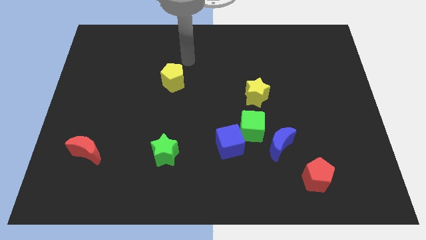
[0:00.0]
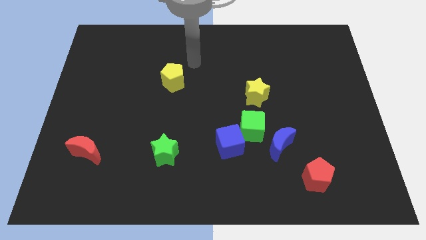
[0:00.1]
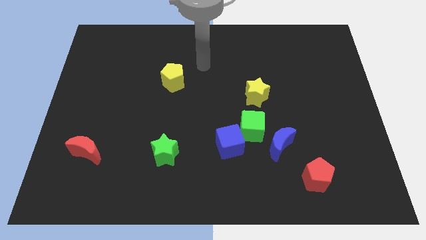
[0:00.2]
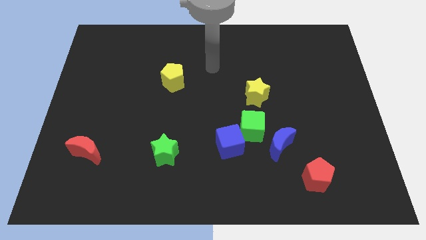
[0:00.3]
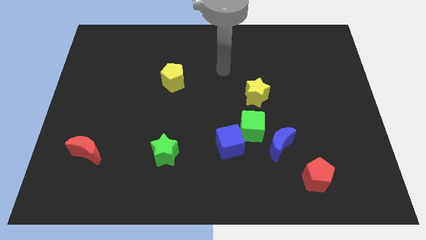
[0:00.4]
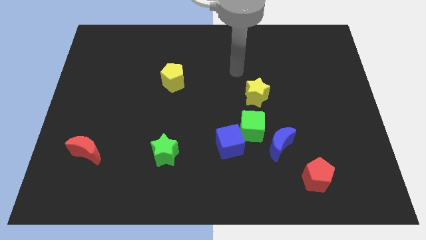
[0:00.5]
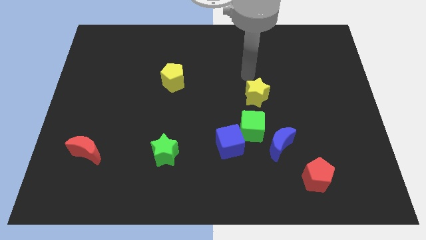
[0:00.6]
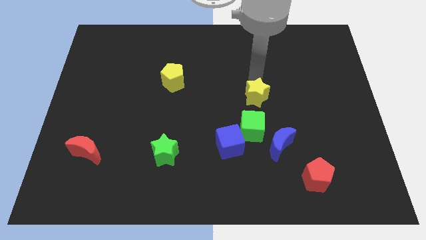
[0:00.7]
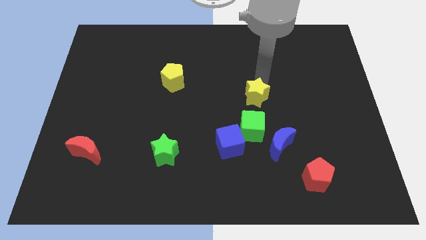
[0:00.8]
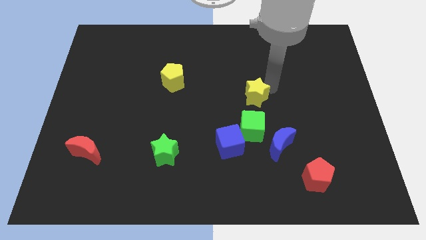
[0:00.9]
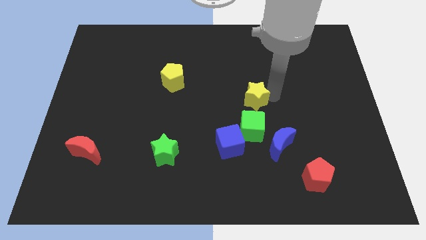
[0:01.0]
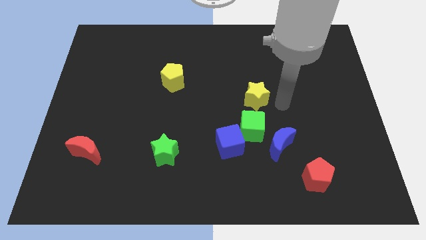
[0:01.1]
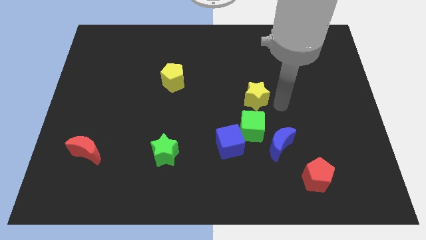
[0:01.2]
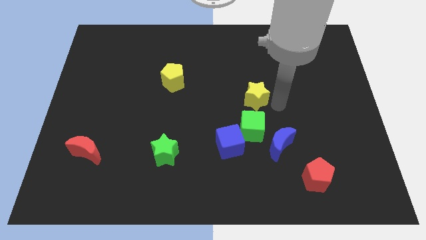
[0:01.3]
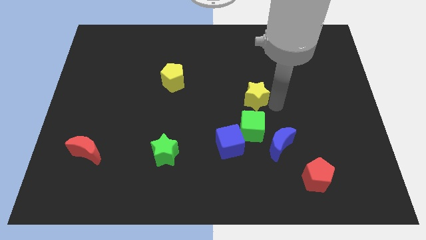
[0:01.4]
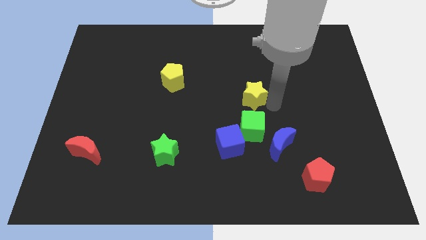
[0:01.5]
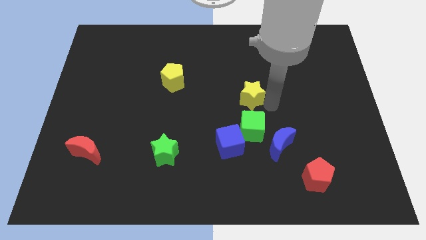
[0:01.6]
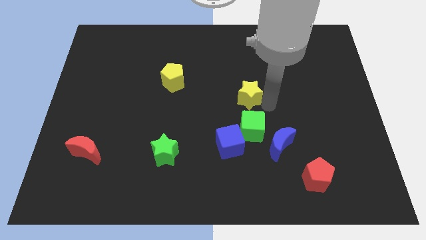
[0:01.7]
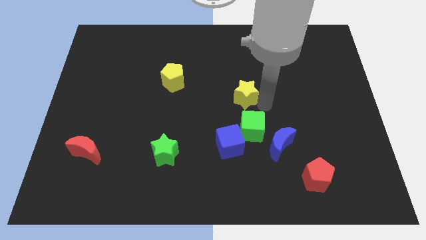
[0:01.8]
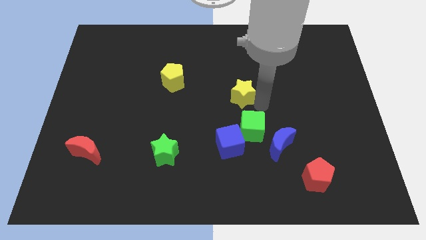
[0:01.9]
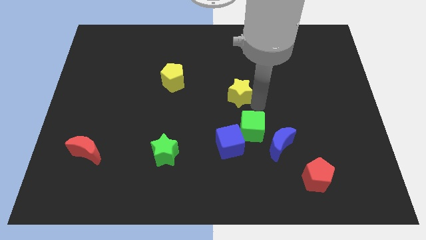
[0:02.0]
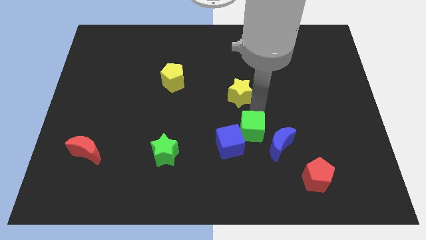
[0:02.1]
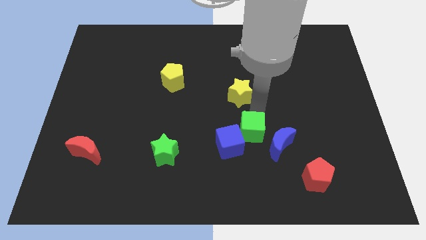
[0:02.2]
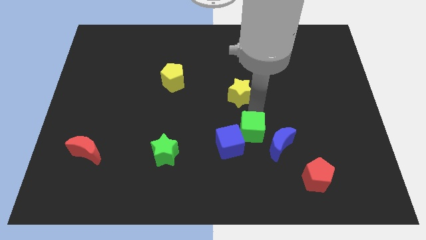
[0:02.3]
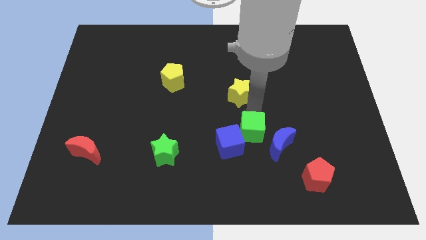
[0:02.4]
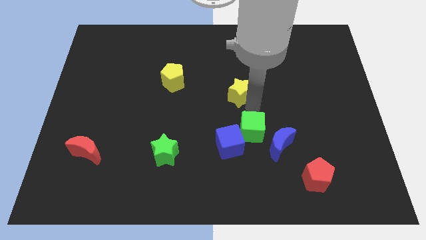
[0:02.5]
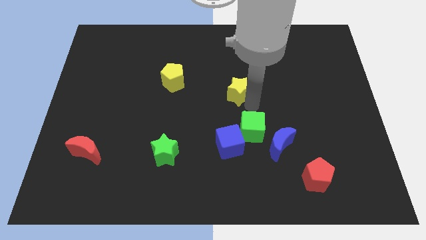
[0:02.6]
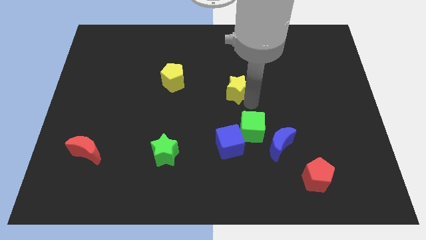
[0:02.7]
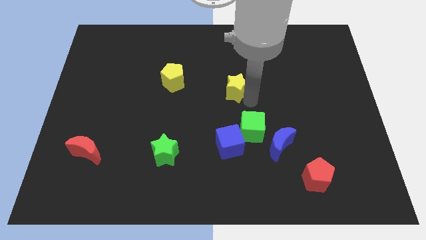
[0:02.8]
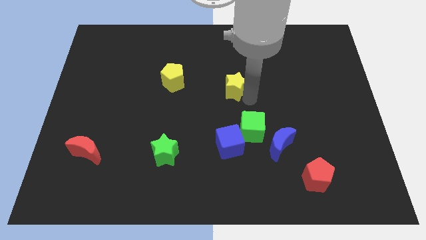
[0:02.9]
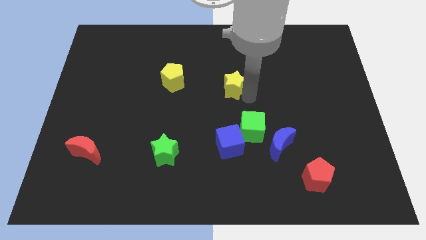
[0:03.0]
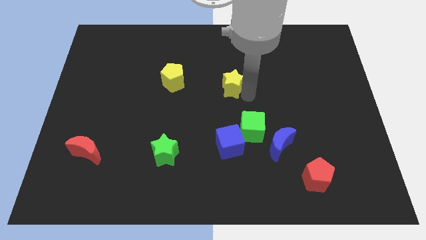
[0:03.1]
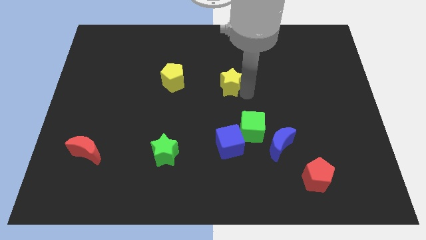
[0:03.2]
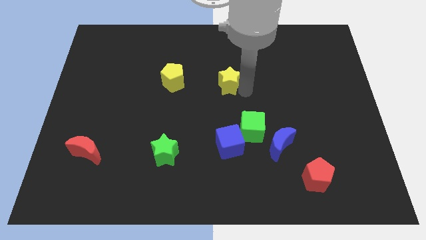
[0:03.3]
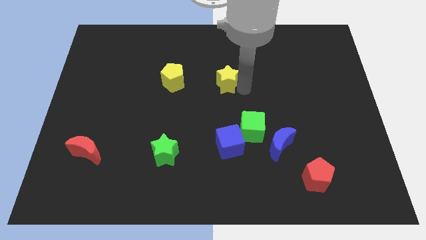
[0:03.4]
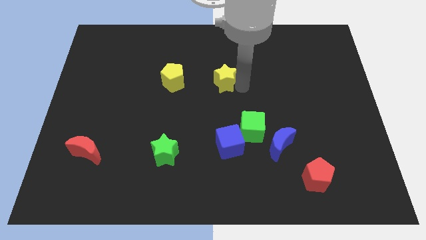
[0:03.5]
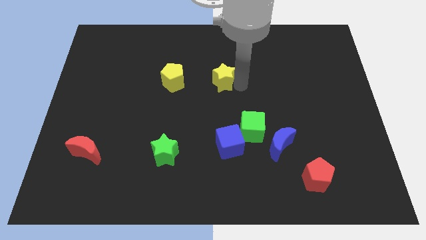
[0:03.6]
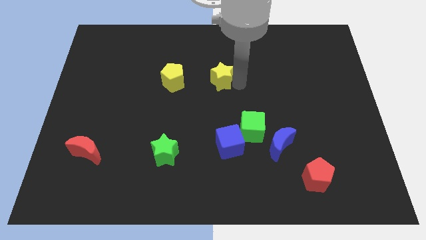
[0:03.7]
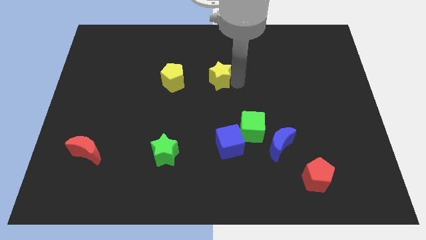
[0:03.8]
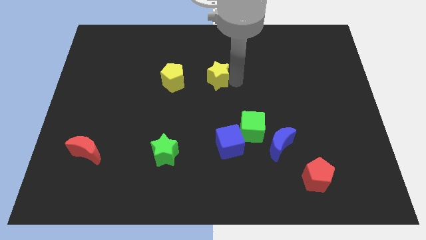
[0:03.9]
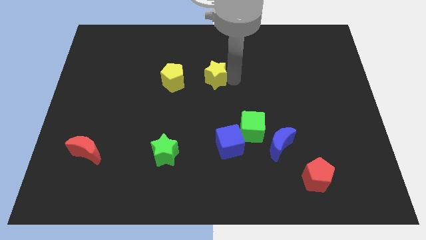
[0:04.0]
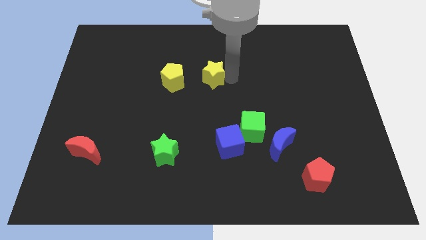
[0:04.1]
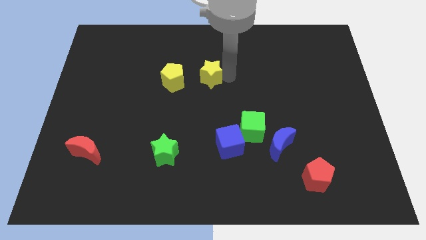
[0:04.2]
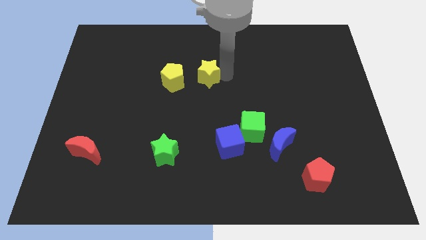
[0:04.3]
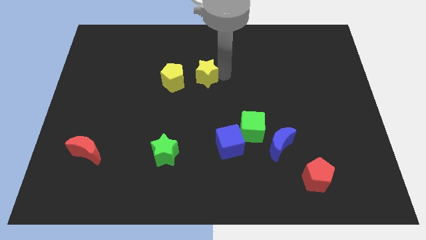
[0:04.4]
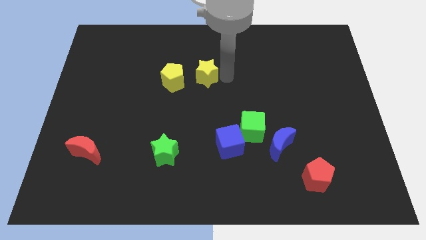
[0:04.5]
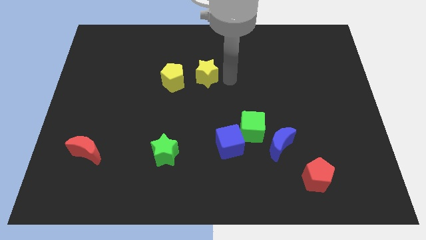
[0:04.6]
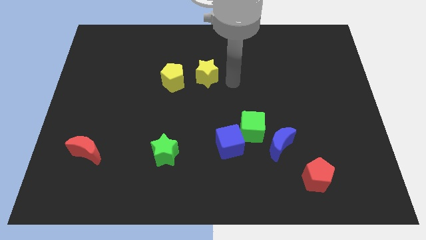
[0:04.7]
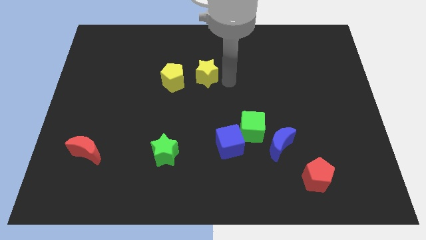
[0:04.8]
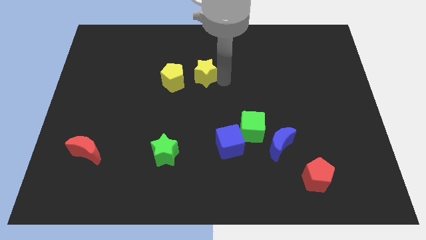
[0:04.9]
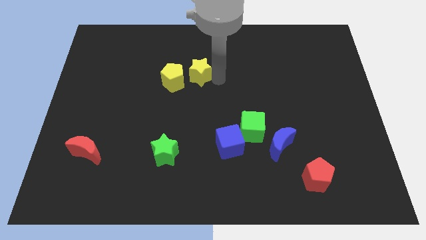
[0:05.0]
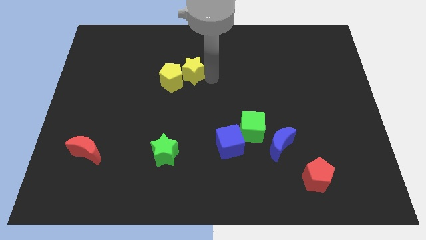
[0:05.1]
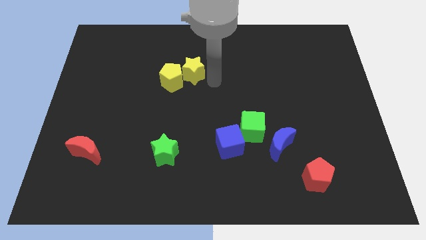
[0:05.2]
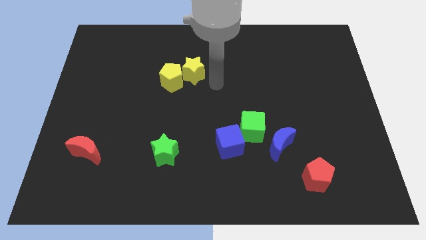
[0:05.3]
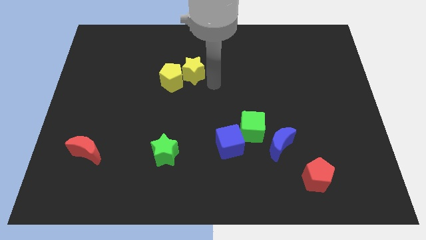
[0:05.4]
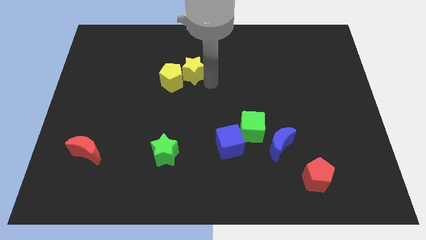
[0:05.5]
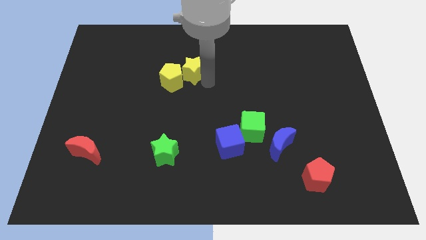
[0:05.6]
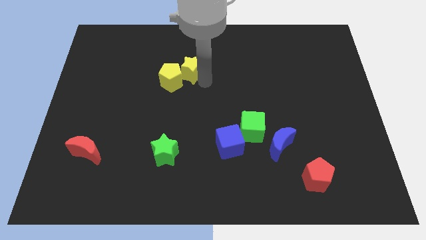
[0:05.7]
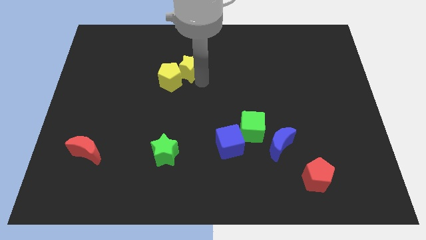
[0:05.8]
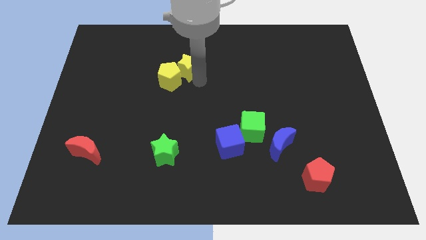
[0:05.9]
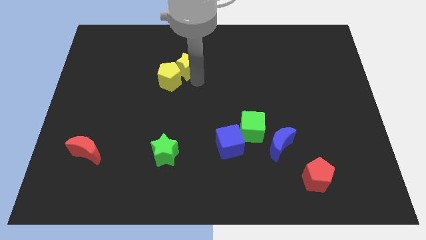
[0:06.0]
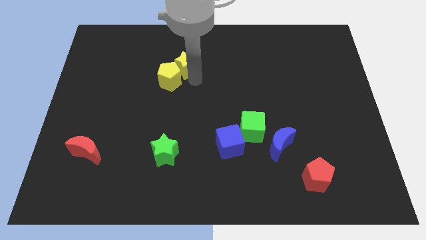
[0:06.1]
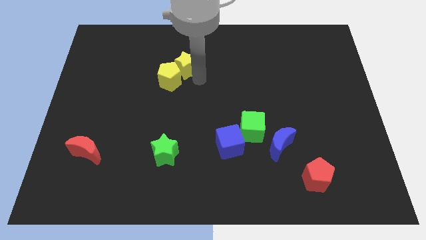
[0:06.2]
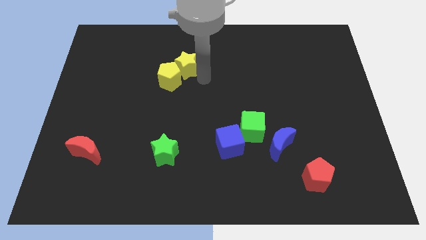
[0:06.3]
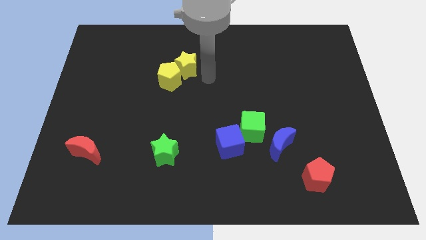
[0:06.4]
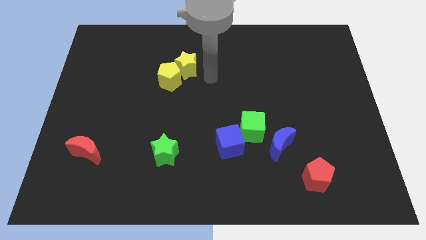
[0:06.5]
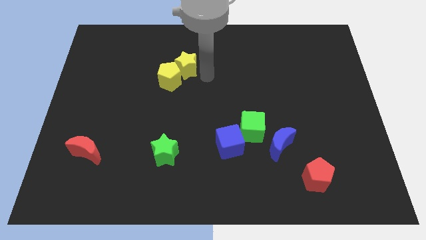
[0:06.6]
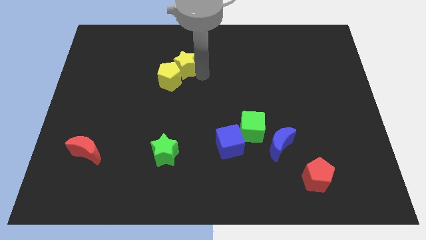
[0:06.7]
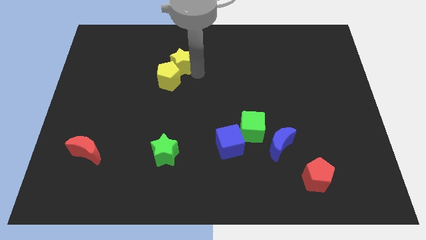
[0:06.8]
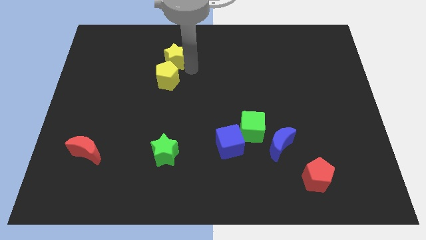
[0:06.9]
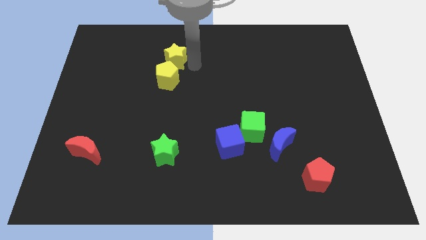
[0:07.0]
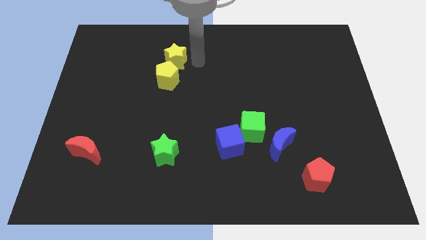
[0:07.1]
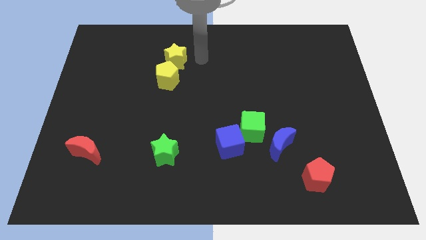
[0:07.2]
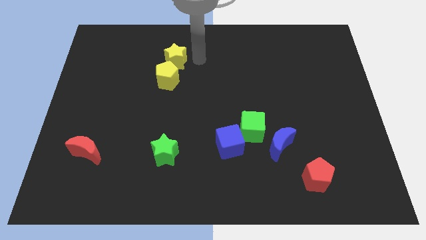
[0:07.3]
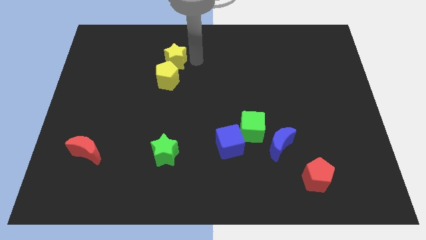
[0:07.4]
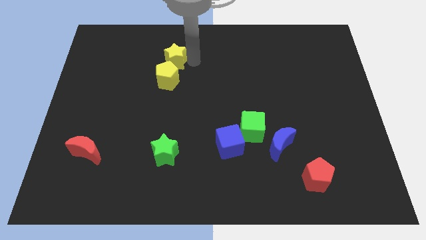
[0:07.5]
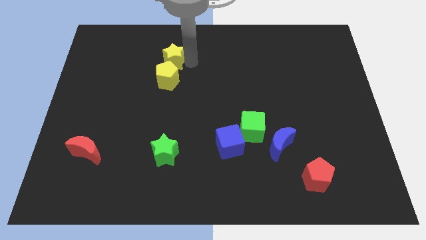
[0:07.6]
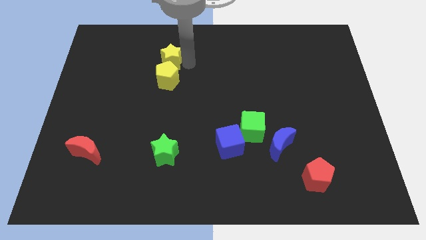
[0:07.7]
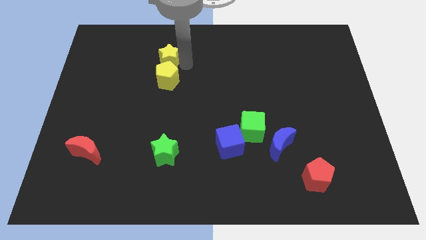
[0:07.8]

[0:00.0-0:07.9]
push the yellow star to the top left of the yellow pentagon
